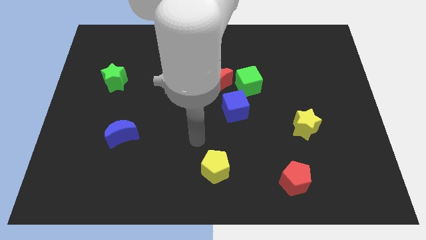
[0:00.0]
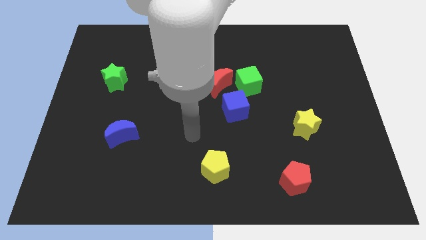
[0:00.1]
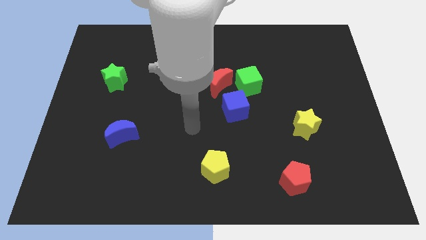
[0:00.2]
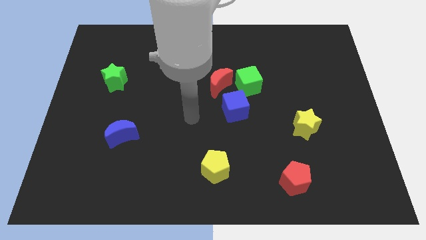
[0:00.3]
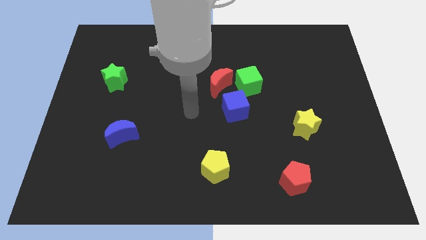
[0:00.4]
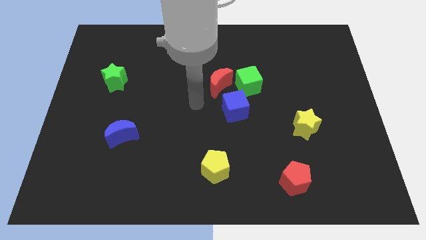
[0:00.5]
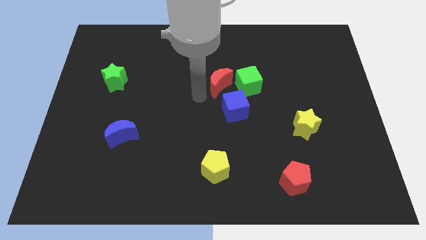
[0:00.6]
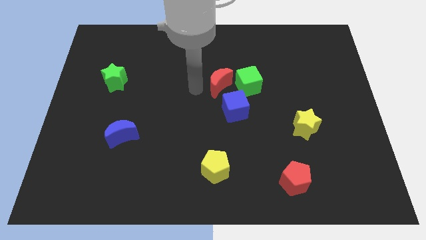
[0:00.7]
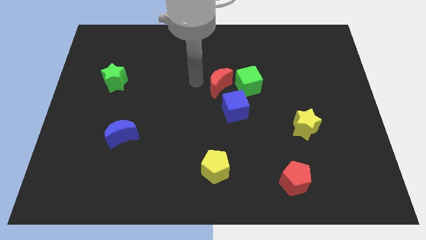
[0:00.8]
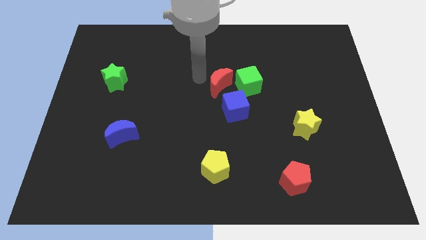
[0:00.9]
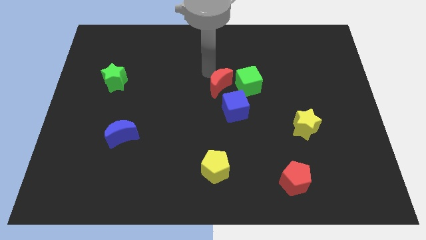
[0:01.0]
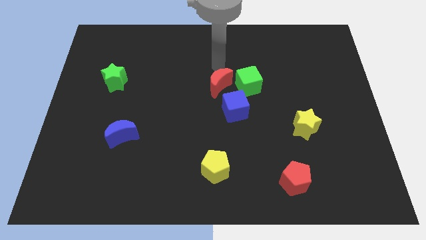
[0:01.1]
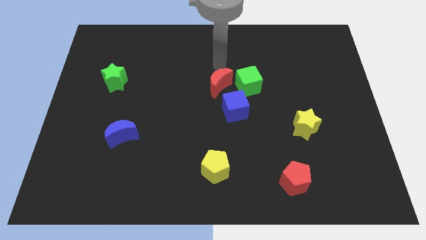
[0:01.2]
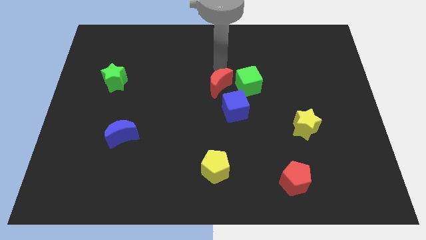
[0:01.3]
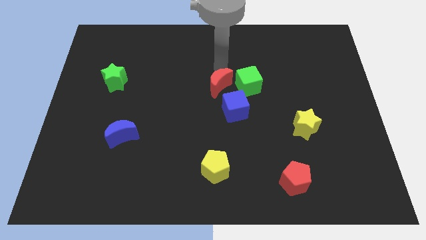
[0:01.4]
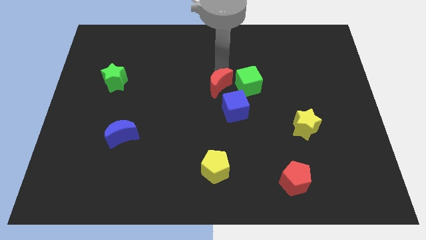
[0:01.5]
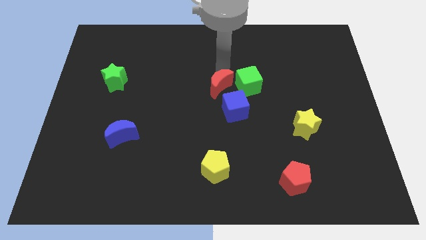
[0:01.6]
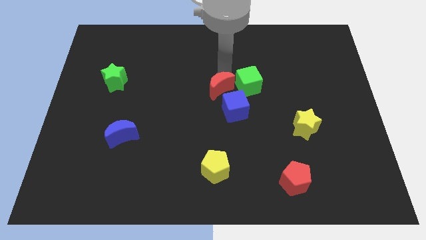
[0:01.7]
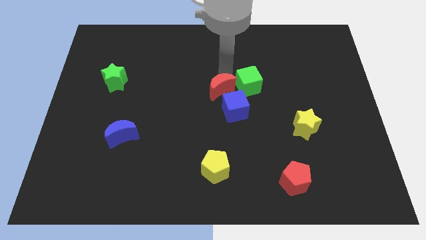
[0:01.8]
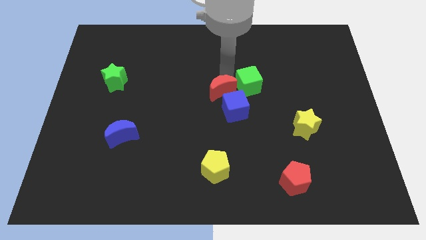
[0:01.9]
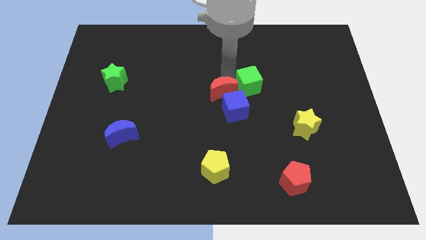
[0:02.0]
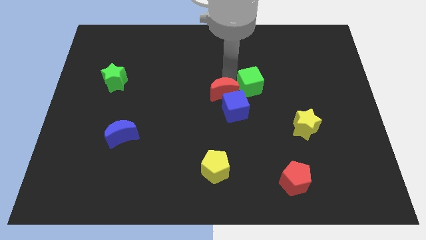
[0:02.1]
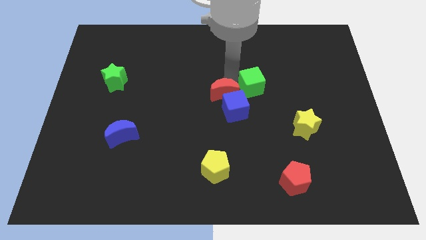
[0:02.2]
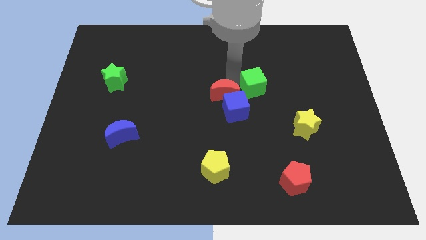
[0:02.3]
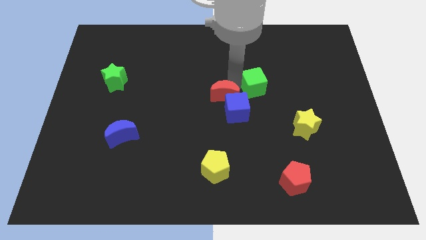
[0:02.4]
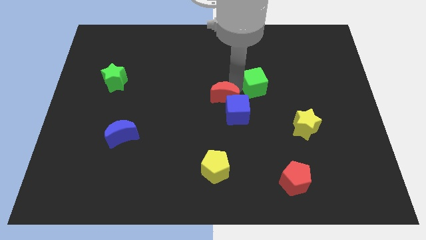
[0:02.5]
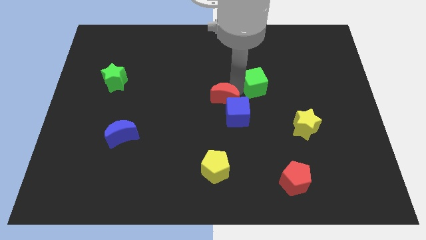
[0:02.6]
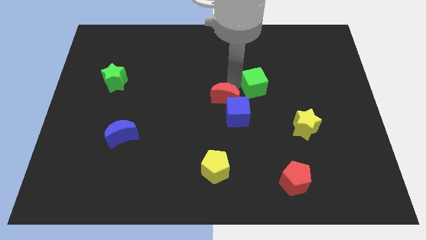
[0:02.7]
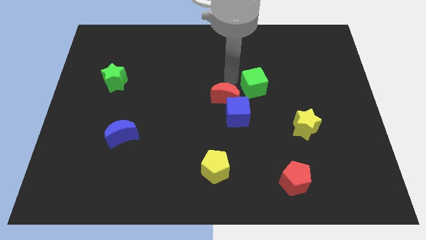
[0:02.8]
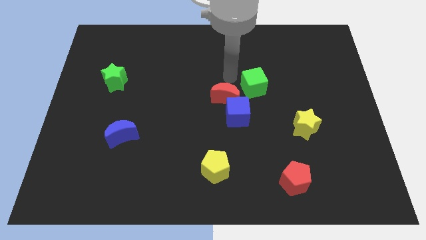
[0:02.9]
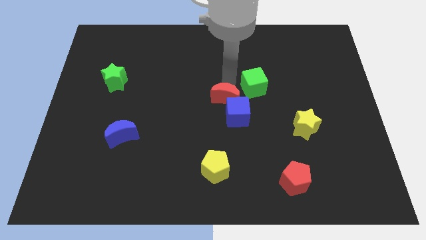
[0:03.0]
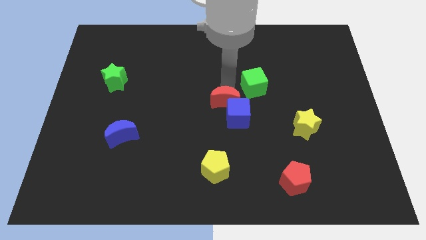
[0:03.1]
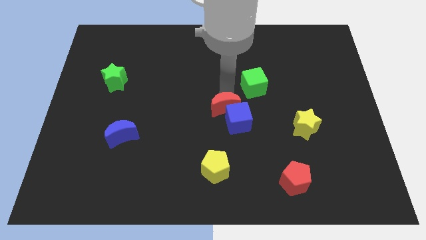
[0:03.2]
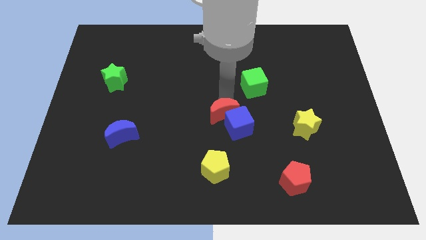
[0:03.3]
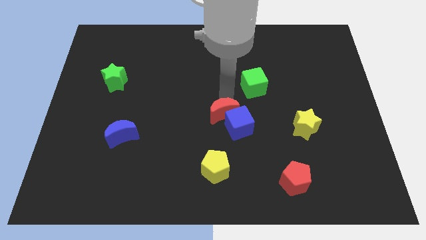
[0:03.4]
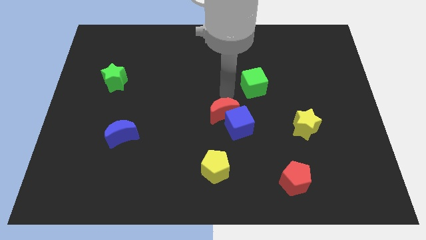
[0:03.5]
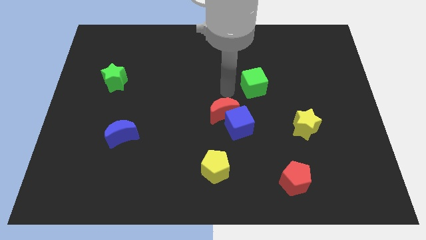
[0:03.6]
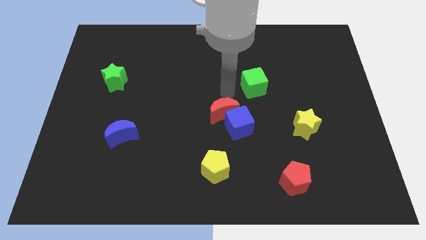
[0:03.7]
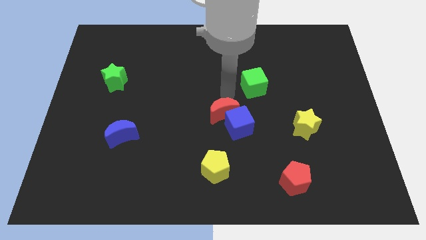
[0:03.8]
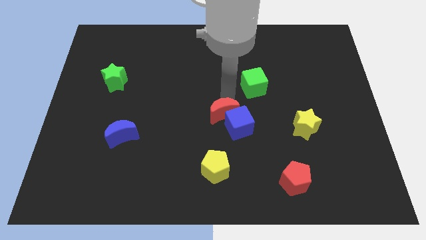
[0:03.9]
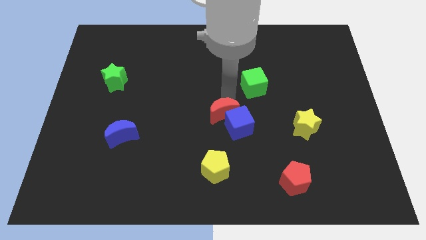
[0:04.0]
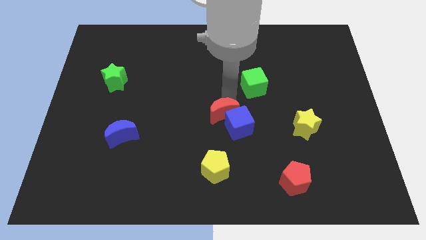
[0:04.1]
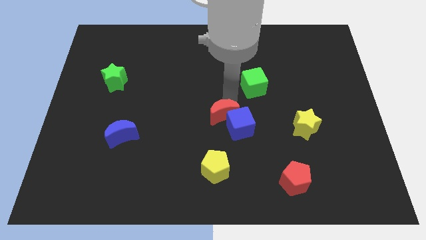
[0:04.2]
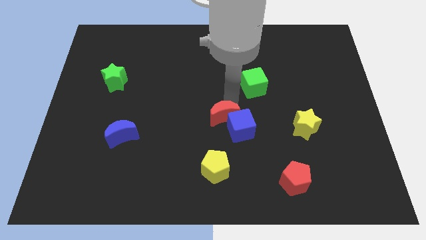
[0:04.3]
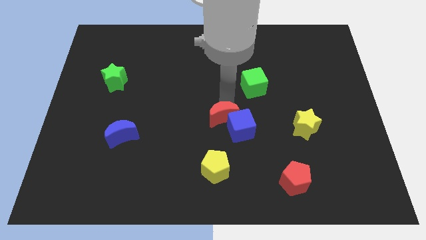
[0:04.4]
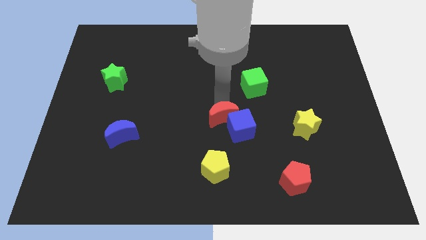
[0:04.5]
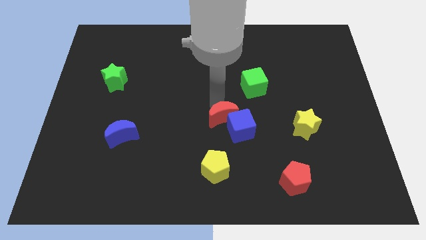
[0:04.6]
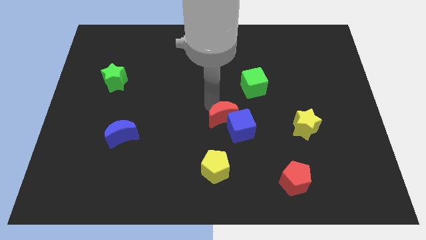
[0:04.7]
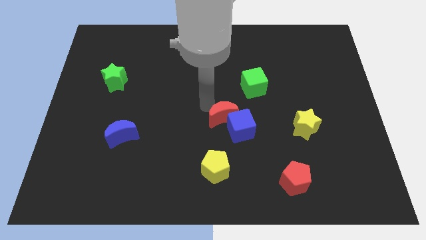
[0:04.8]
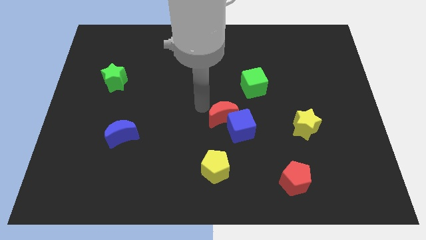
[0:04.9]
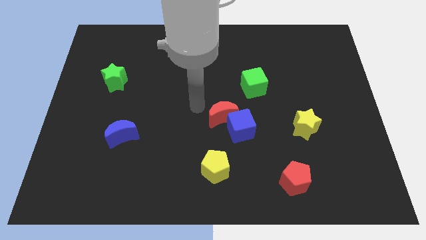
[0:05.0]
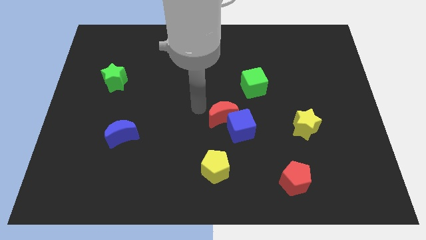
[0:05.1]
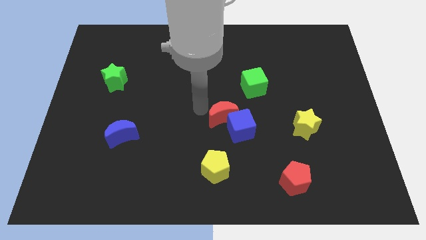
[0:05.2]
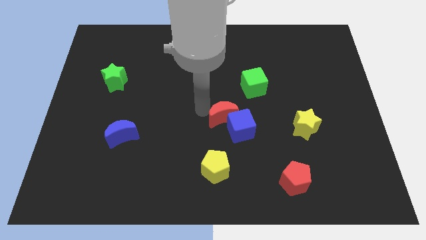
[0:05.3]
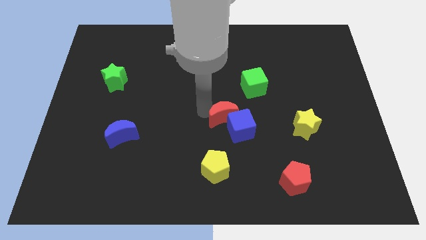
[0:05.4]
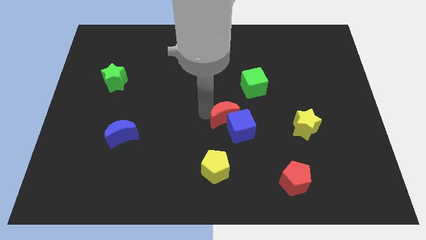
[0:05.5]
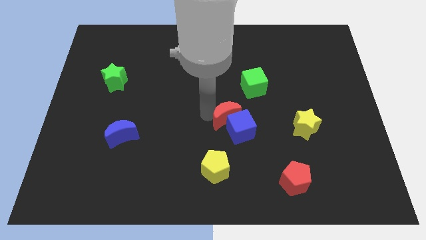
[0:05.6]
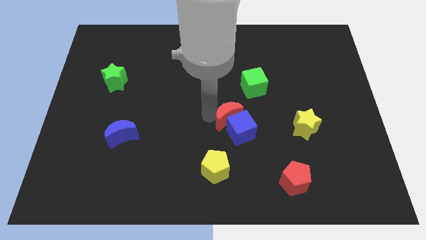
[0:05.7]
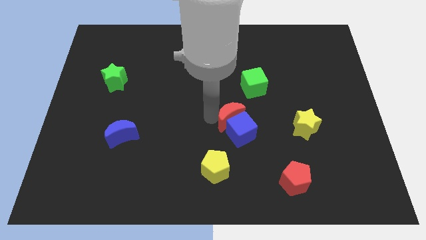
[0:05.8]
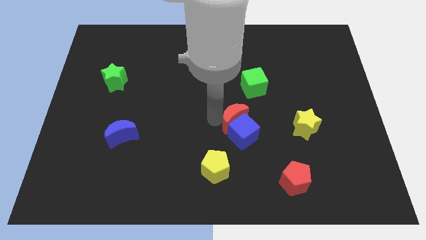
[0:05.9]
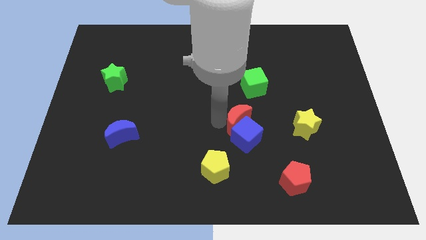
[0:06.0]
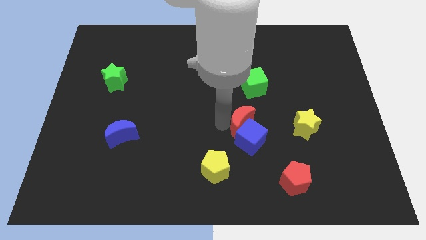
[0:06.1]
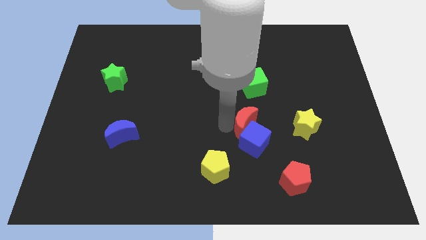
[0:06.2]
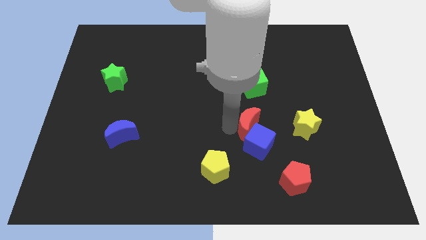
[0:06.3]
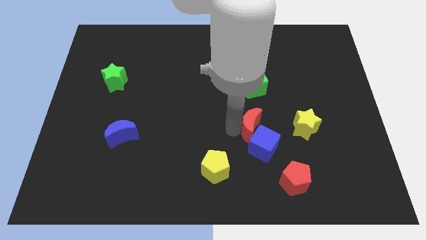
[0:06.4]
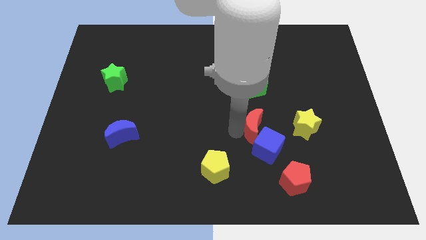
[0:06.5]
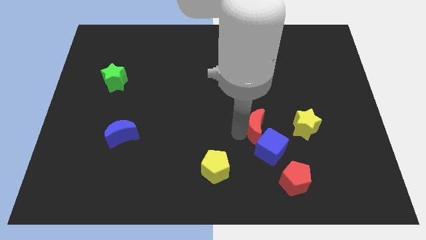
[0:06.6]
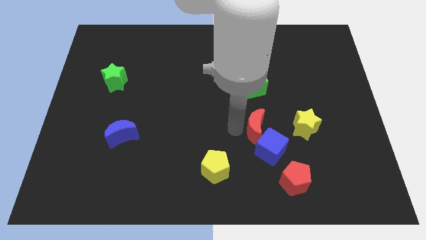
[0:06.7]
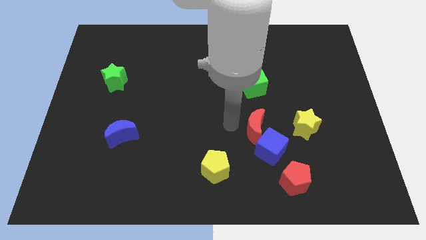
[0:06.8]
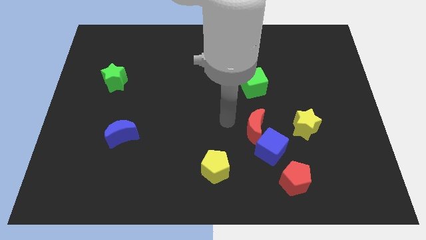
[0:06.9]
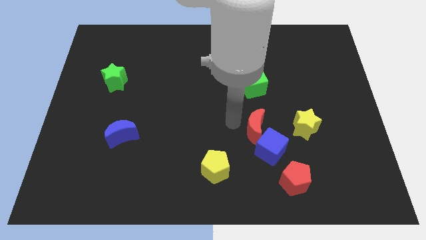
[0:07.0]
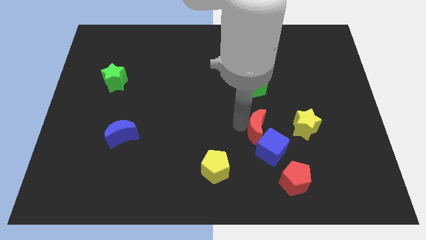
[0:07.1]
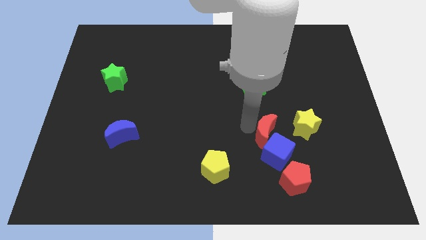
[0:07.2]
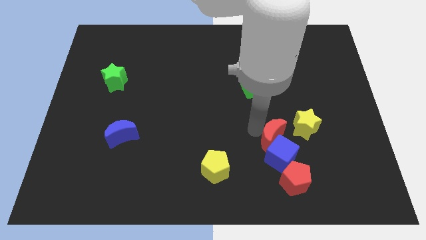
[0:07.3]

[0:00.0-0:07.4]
put the red moon above the red pentagon

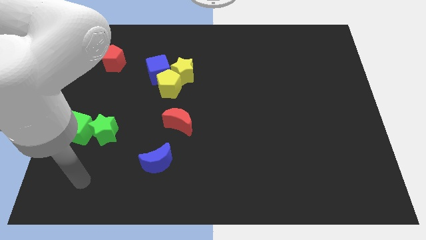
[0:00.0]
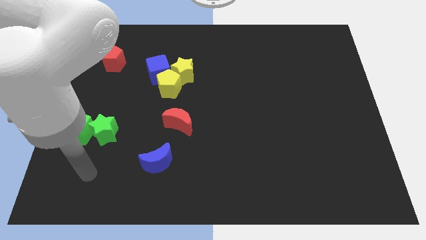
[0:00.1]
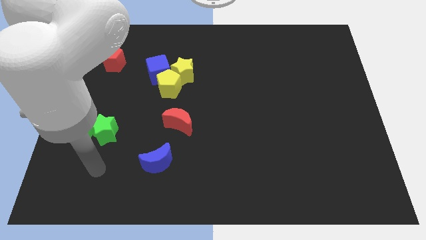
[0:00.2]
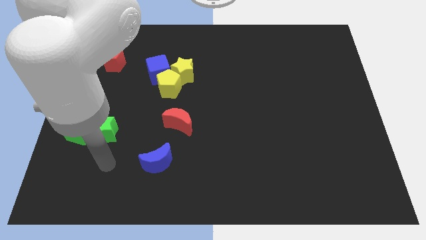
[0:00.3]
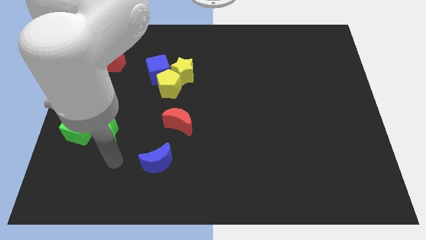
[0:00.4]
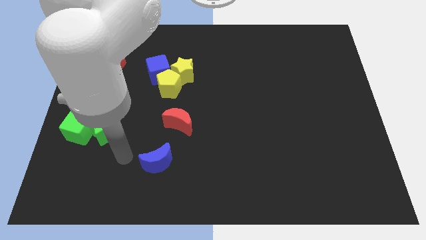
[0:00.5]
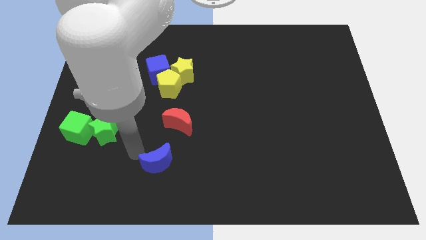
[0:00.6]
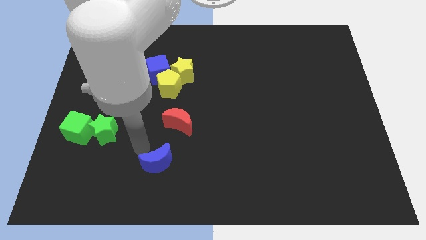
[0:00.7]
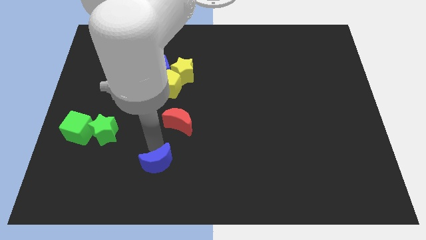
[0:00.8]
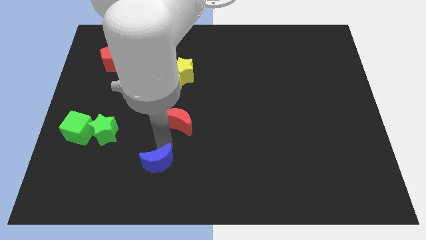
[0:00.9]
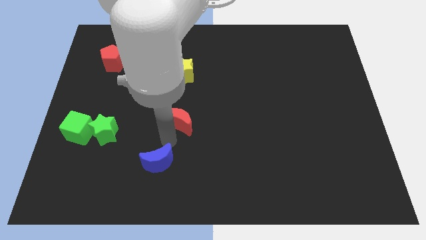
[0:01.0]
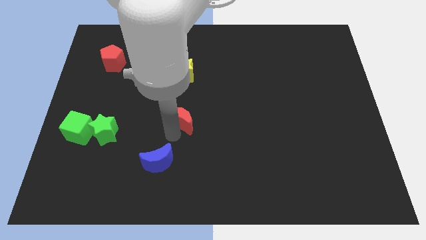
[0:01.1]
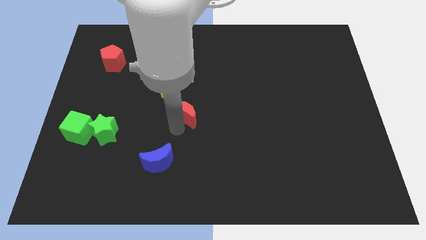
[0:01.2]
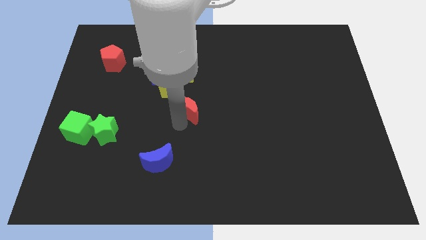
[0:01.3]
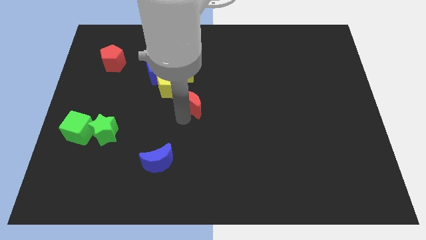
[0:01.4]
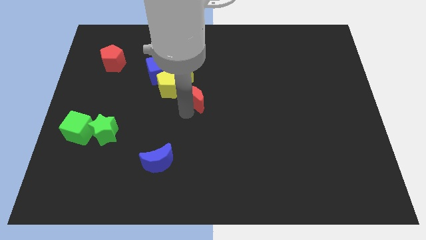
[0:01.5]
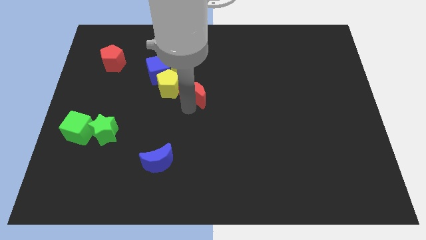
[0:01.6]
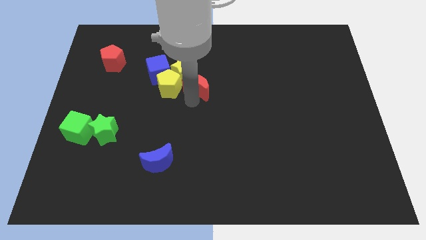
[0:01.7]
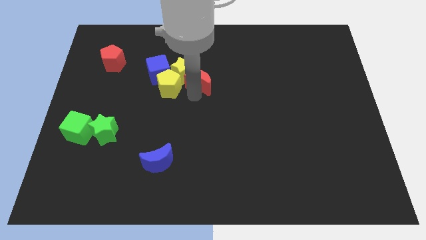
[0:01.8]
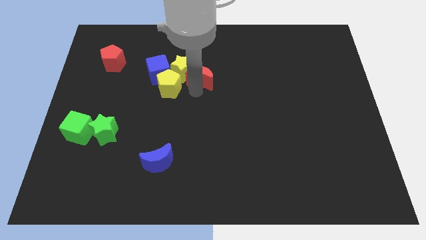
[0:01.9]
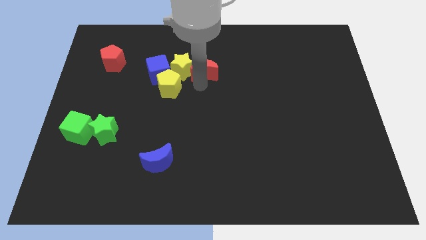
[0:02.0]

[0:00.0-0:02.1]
move the red moon to the top right of the yellow star
